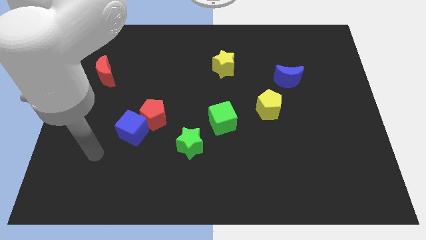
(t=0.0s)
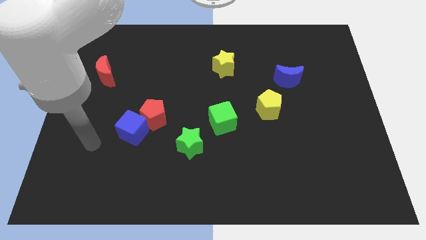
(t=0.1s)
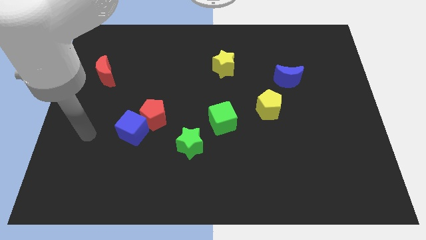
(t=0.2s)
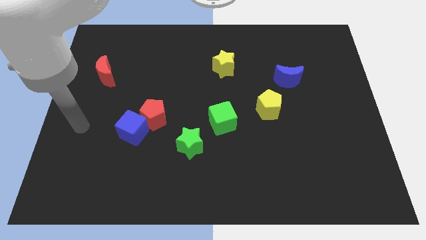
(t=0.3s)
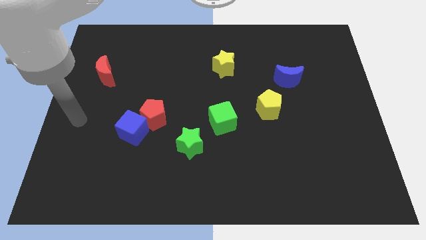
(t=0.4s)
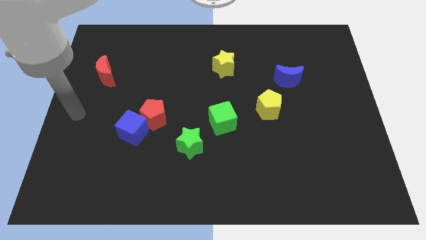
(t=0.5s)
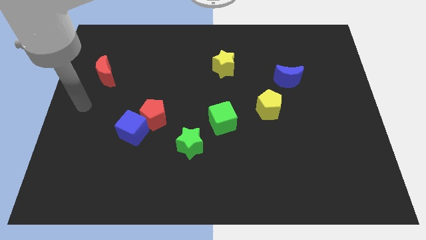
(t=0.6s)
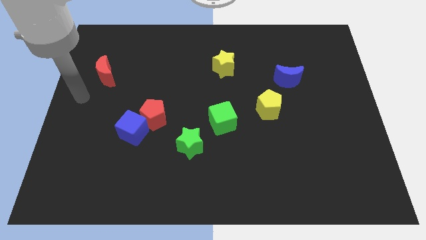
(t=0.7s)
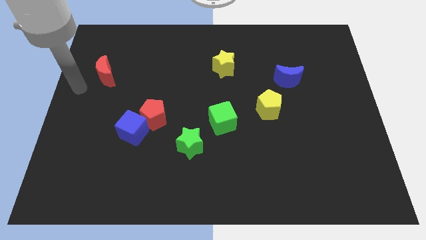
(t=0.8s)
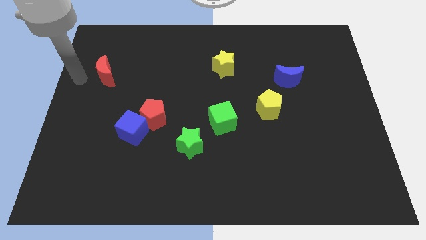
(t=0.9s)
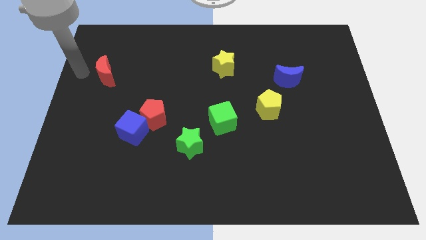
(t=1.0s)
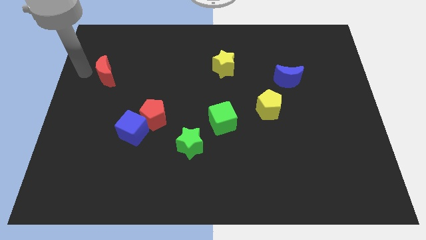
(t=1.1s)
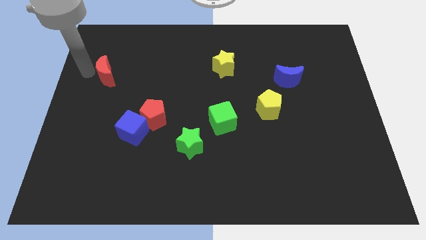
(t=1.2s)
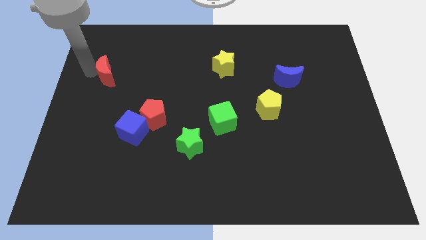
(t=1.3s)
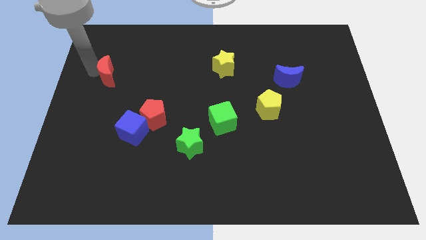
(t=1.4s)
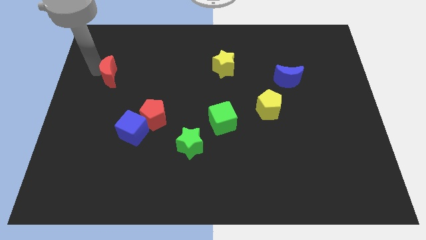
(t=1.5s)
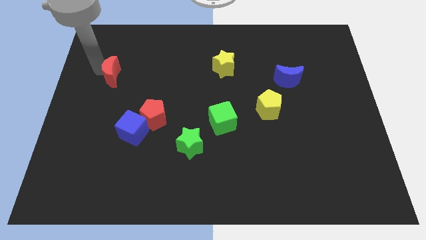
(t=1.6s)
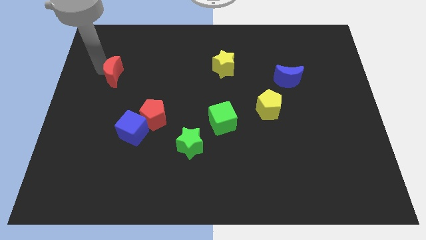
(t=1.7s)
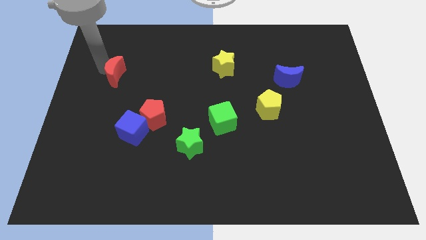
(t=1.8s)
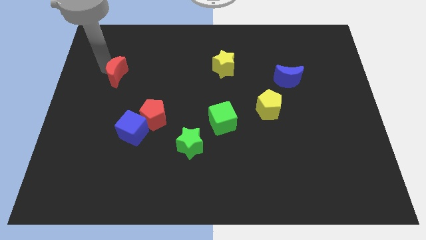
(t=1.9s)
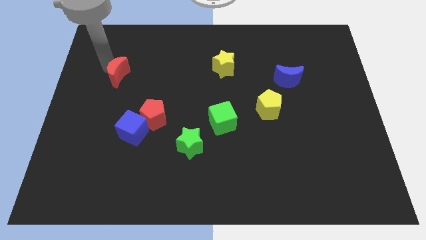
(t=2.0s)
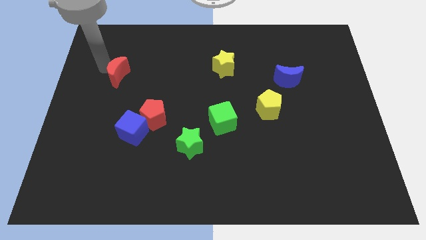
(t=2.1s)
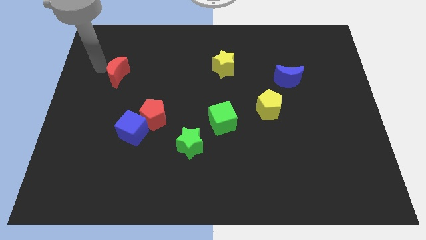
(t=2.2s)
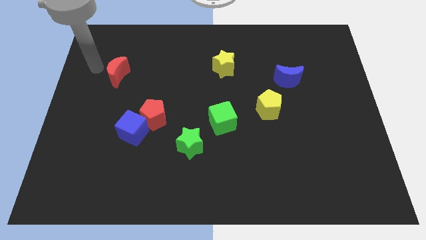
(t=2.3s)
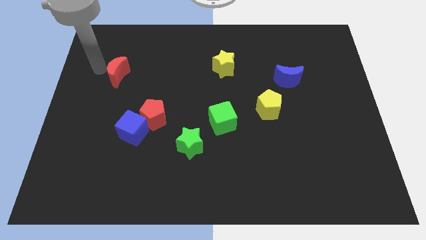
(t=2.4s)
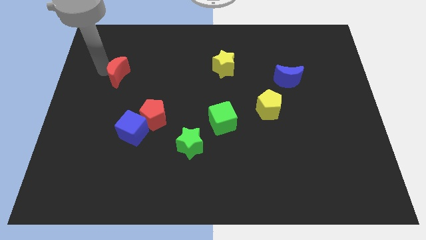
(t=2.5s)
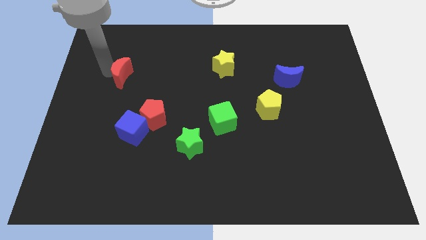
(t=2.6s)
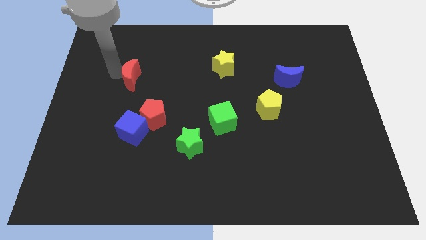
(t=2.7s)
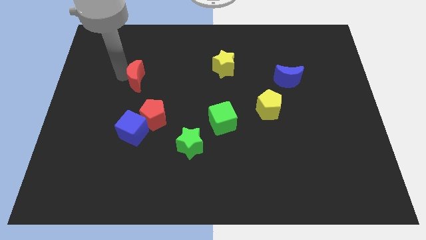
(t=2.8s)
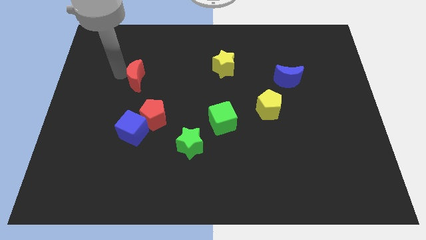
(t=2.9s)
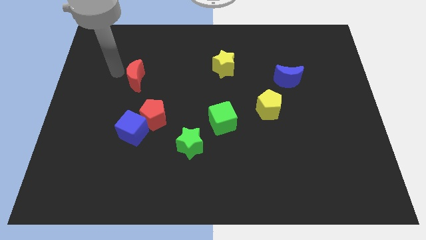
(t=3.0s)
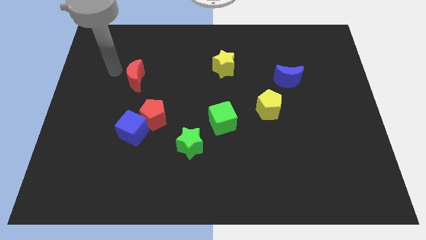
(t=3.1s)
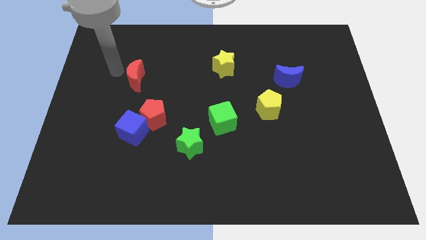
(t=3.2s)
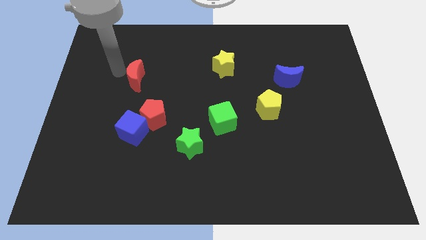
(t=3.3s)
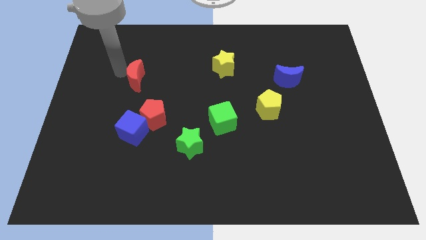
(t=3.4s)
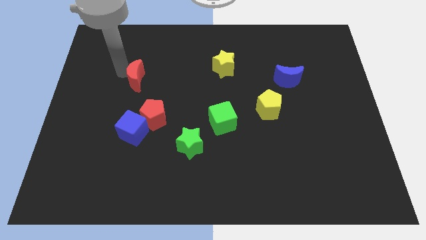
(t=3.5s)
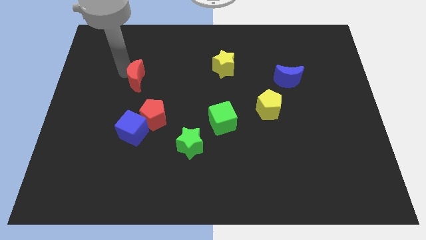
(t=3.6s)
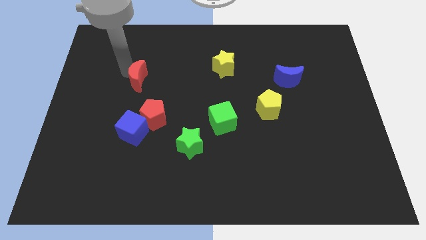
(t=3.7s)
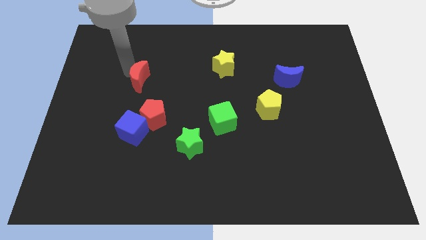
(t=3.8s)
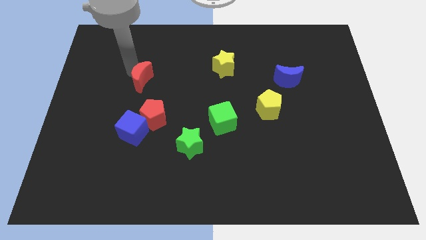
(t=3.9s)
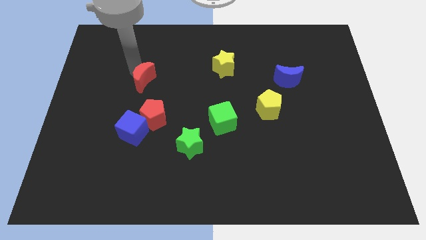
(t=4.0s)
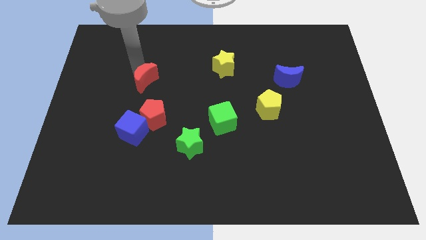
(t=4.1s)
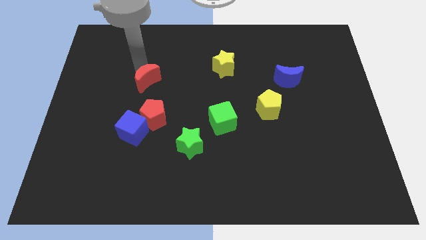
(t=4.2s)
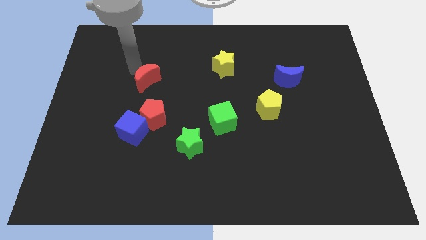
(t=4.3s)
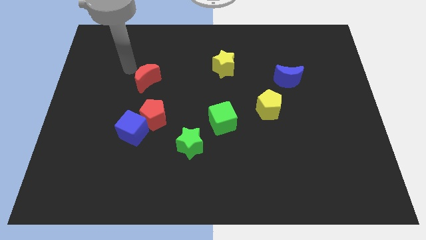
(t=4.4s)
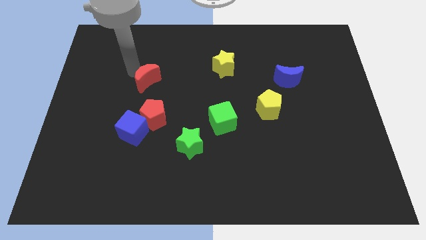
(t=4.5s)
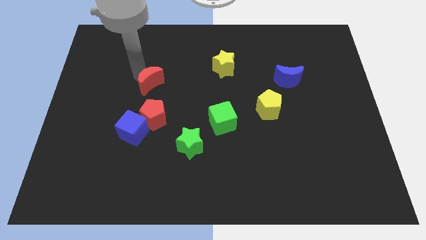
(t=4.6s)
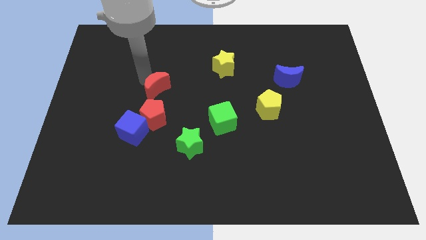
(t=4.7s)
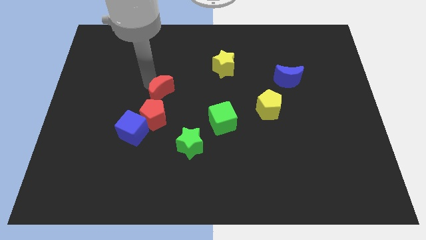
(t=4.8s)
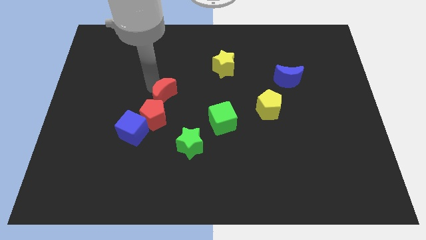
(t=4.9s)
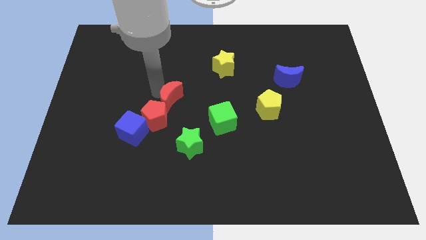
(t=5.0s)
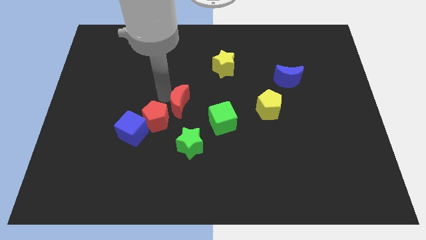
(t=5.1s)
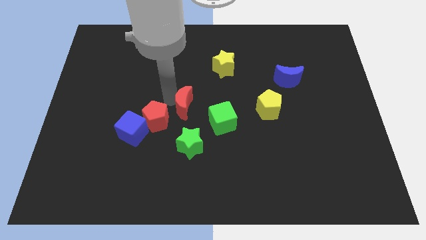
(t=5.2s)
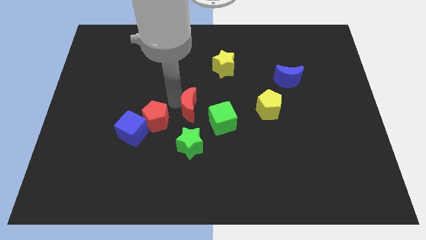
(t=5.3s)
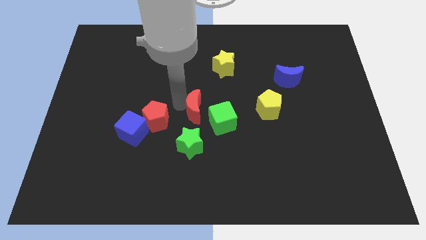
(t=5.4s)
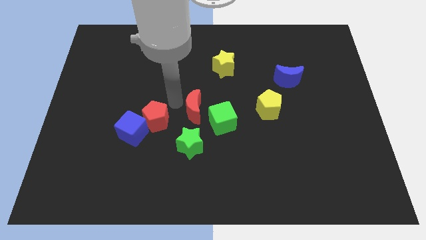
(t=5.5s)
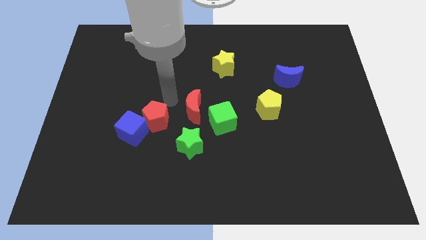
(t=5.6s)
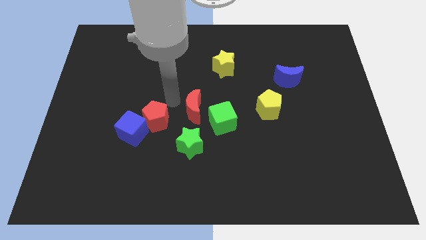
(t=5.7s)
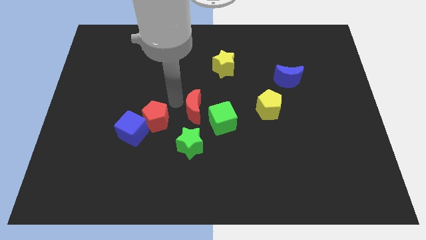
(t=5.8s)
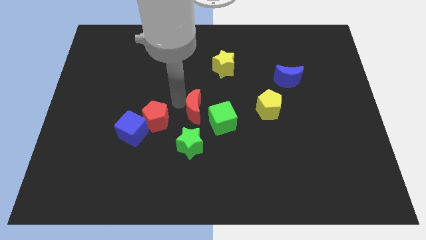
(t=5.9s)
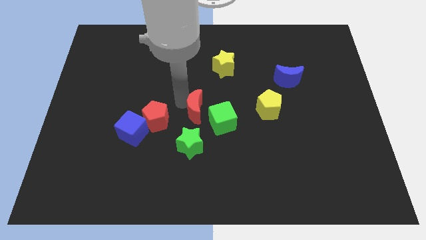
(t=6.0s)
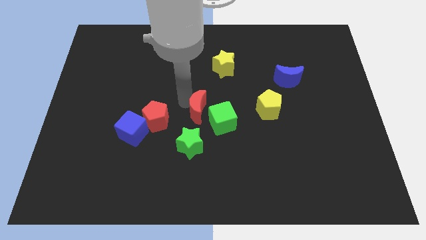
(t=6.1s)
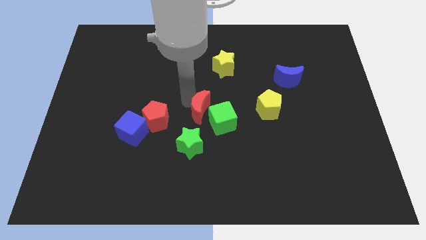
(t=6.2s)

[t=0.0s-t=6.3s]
move the red moon next to the green cube
